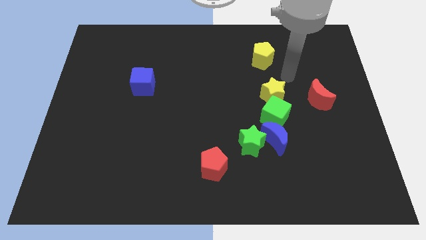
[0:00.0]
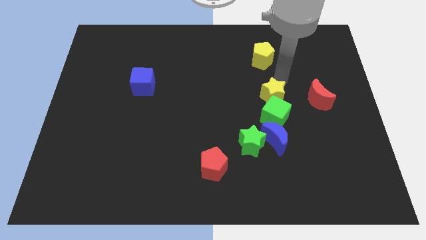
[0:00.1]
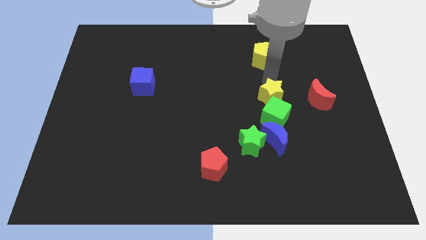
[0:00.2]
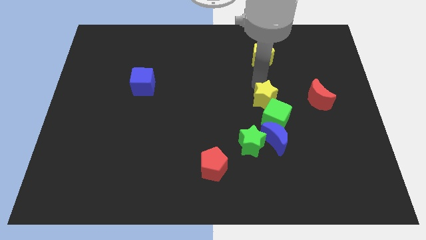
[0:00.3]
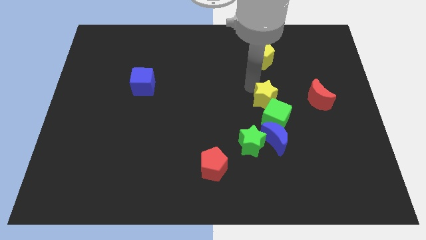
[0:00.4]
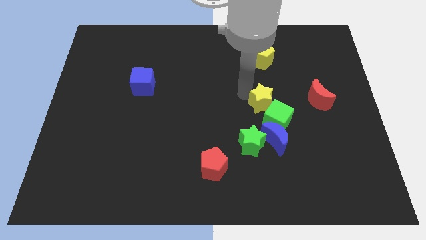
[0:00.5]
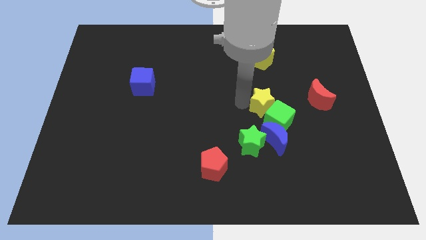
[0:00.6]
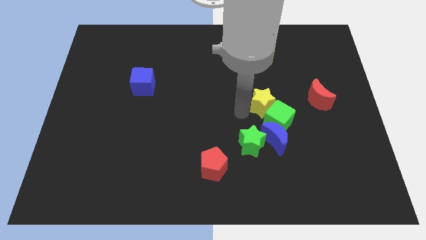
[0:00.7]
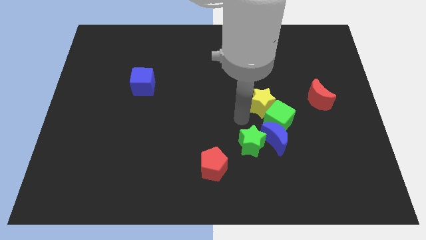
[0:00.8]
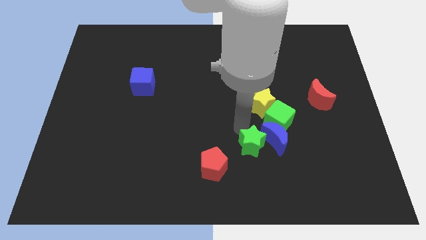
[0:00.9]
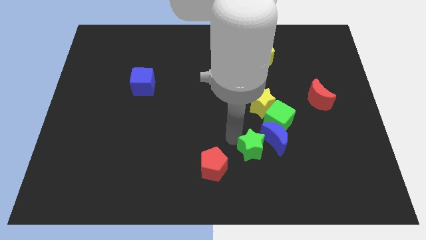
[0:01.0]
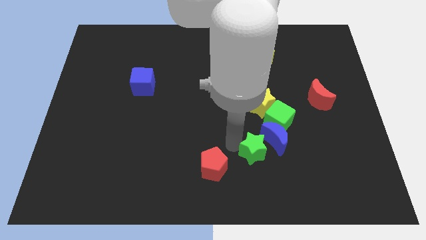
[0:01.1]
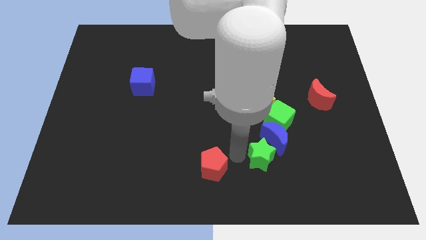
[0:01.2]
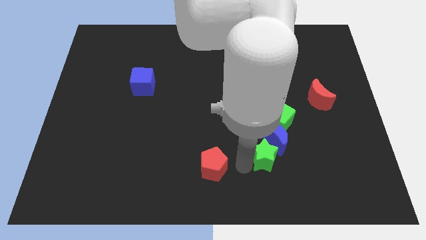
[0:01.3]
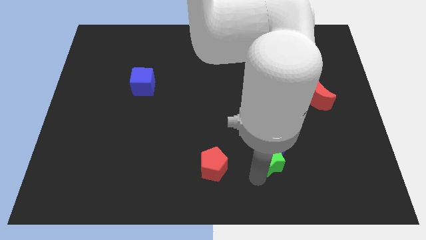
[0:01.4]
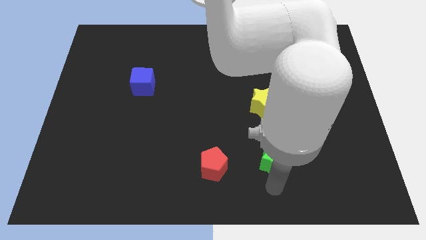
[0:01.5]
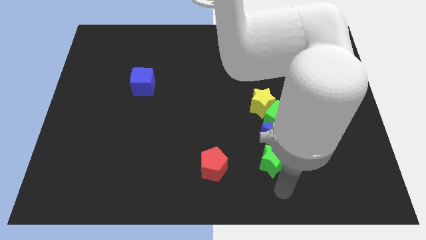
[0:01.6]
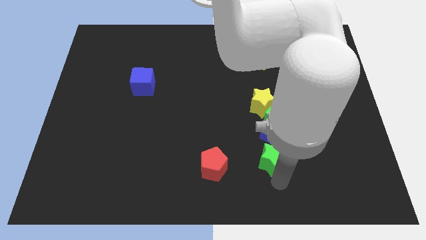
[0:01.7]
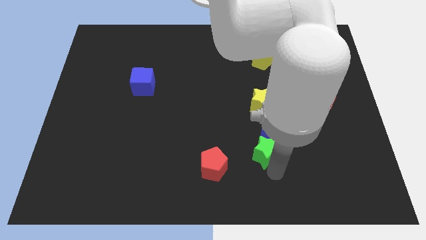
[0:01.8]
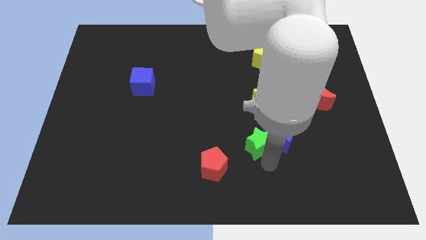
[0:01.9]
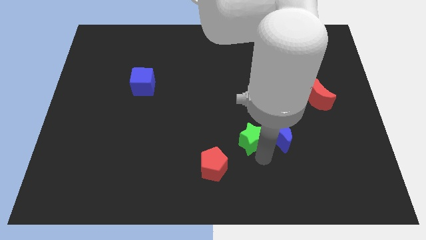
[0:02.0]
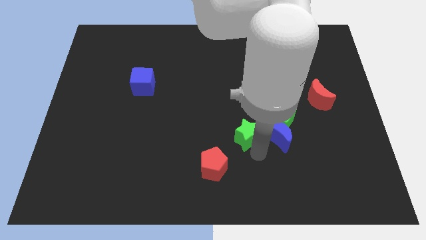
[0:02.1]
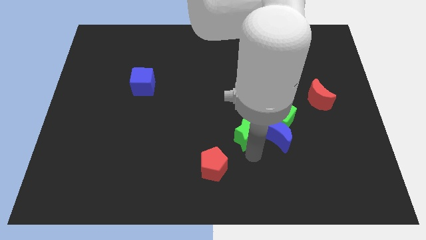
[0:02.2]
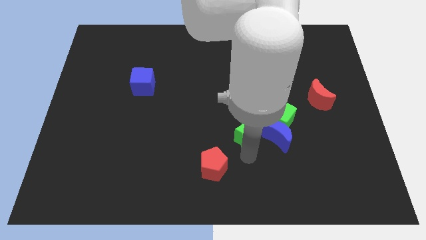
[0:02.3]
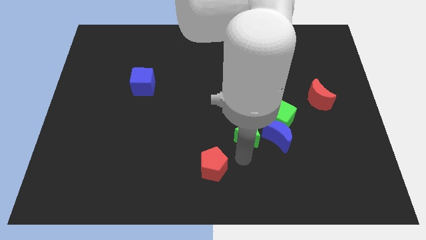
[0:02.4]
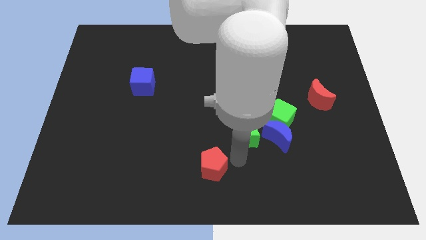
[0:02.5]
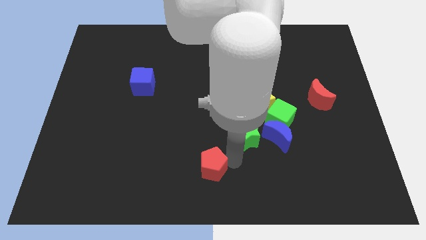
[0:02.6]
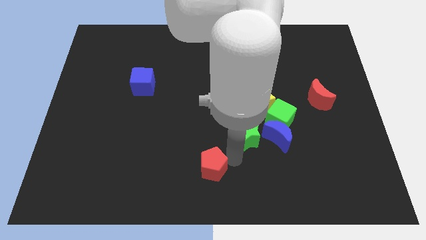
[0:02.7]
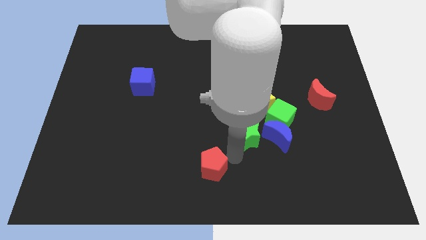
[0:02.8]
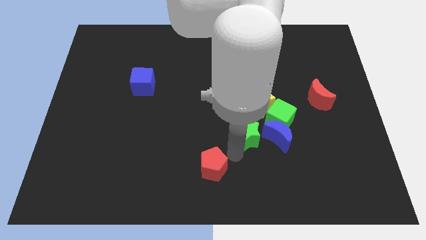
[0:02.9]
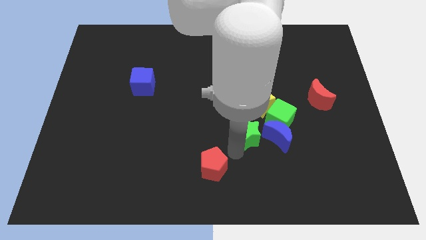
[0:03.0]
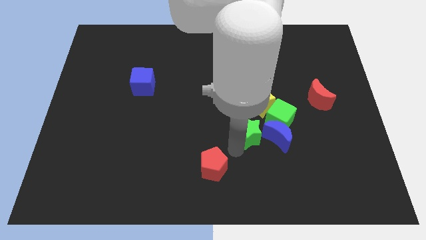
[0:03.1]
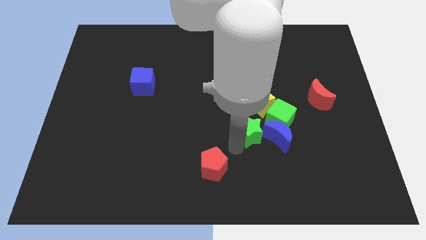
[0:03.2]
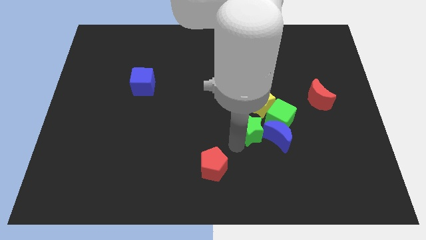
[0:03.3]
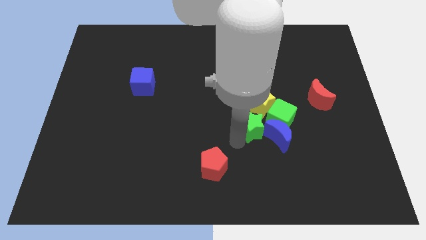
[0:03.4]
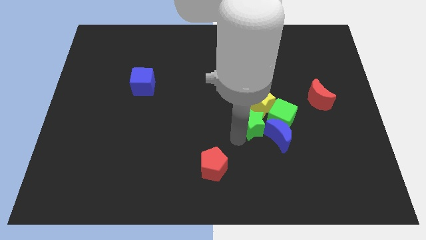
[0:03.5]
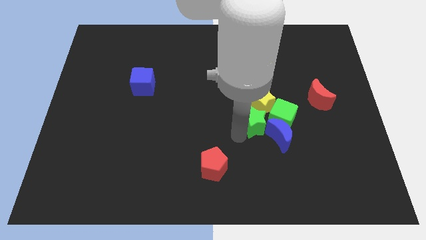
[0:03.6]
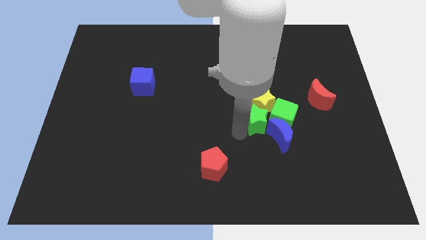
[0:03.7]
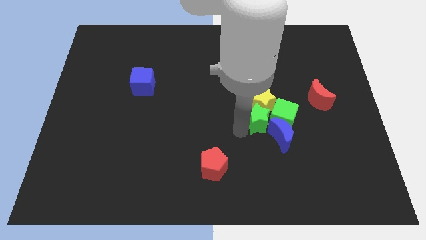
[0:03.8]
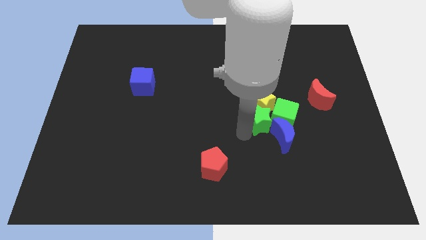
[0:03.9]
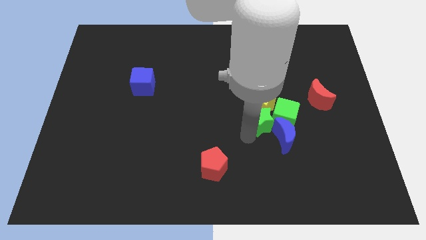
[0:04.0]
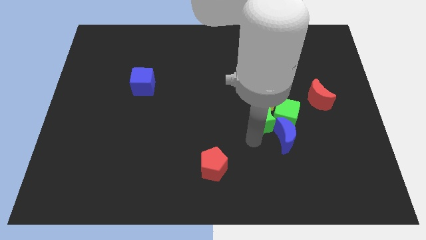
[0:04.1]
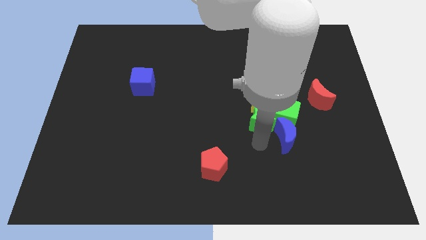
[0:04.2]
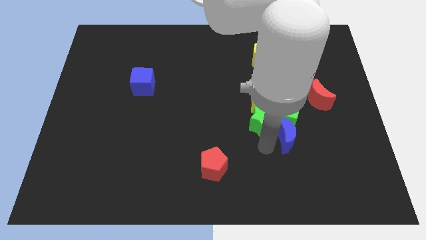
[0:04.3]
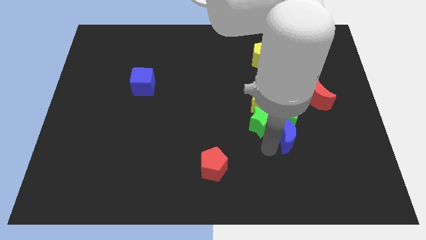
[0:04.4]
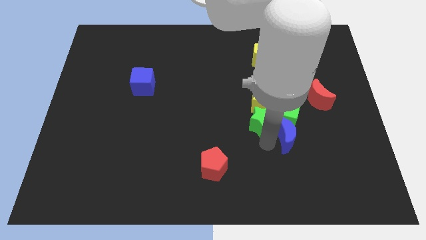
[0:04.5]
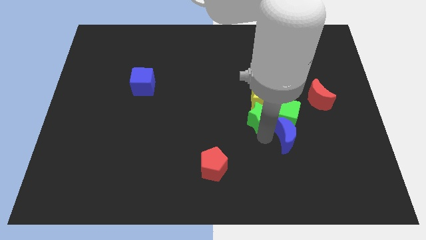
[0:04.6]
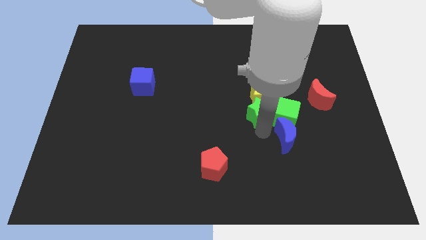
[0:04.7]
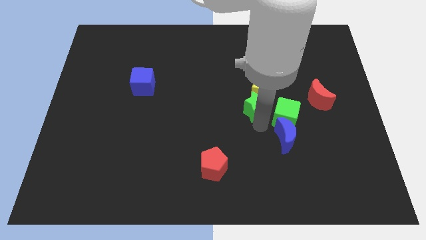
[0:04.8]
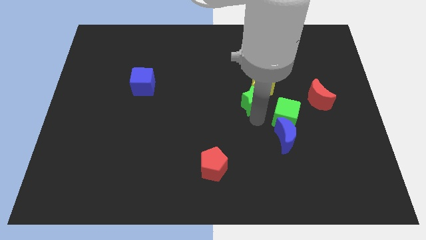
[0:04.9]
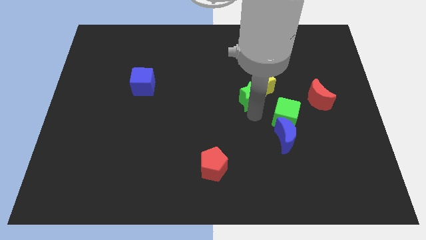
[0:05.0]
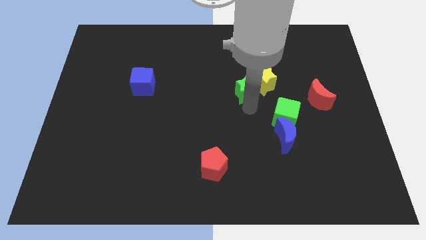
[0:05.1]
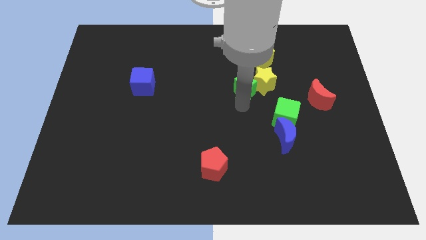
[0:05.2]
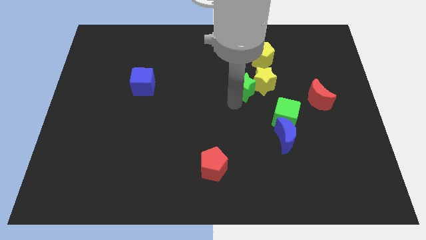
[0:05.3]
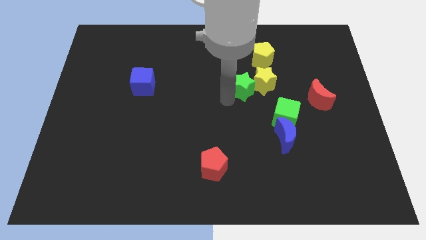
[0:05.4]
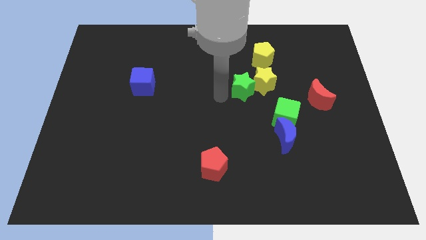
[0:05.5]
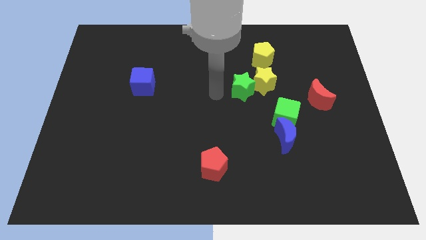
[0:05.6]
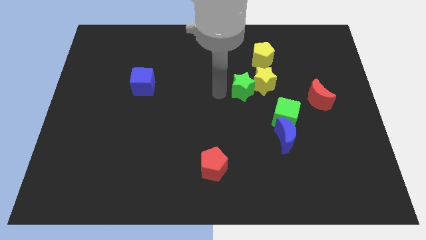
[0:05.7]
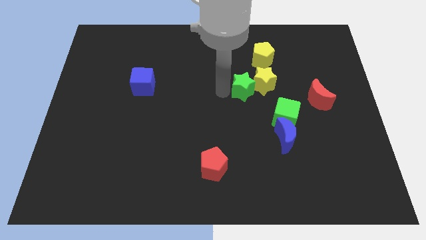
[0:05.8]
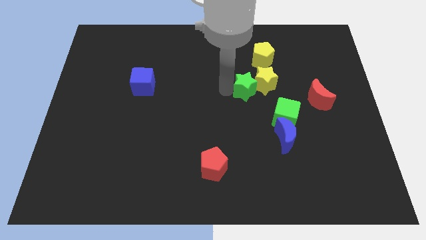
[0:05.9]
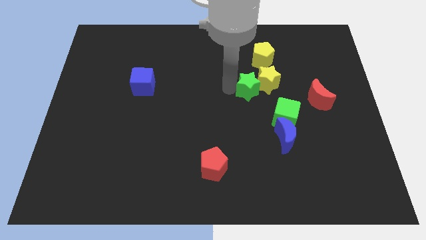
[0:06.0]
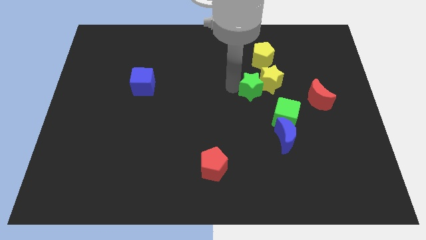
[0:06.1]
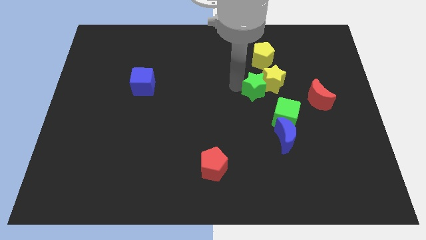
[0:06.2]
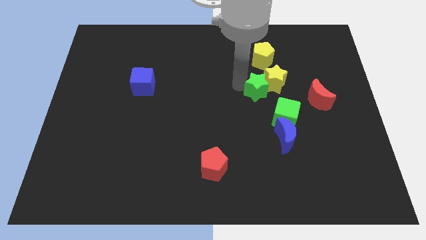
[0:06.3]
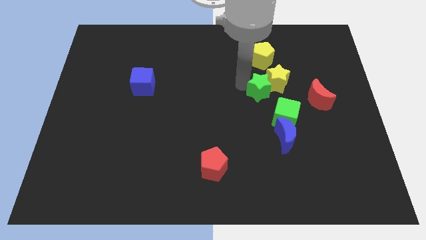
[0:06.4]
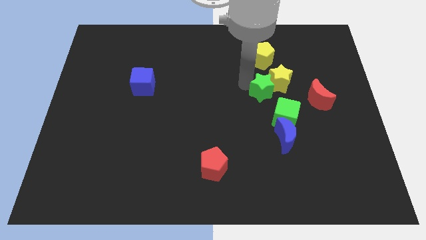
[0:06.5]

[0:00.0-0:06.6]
move the green star to the top side of the green cube

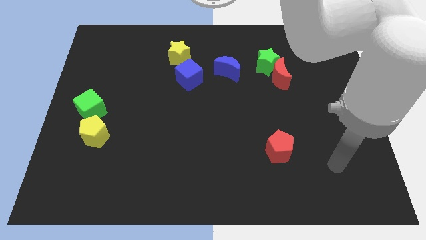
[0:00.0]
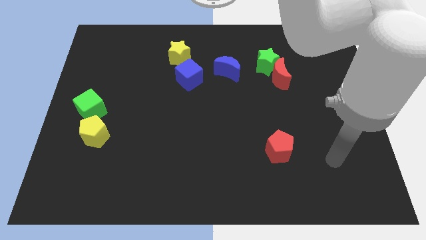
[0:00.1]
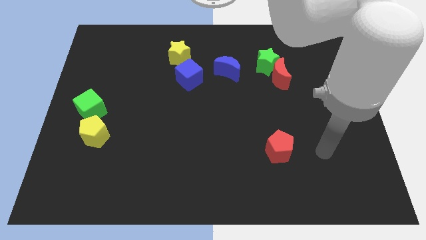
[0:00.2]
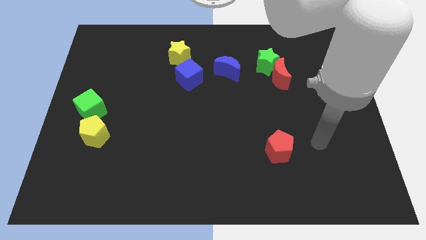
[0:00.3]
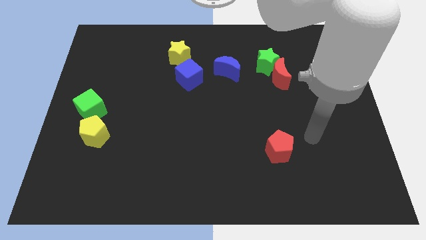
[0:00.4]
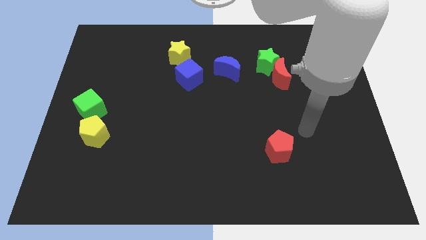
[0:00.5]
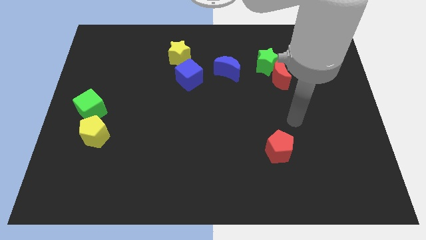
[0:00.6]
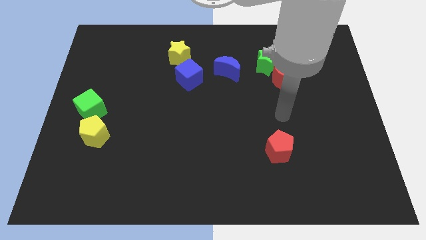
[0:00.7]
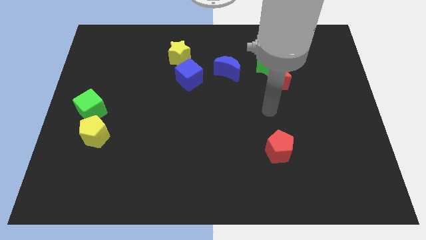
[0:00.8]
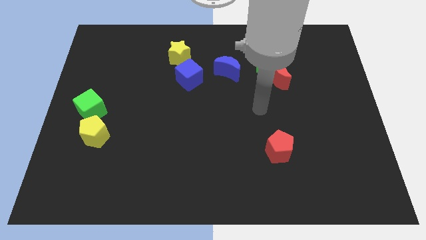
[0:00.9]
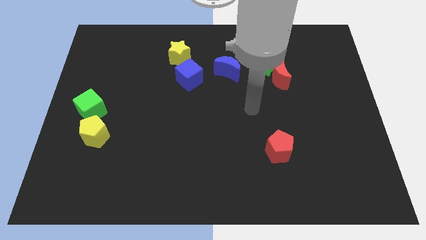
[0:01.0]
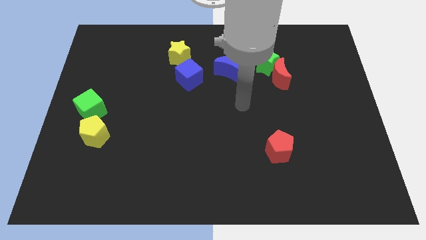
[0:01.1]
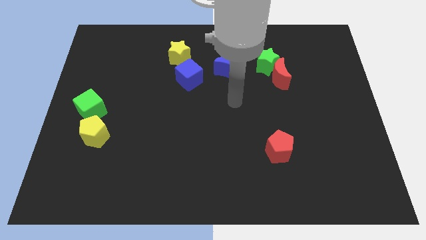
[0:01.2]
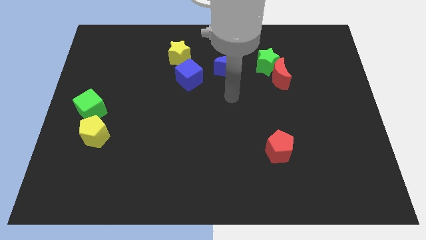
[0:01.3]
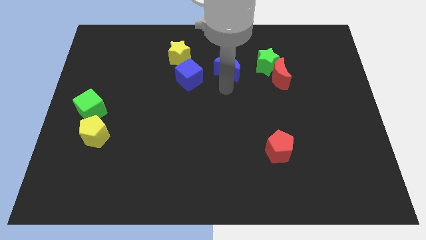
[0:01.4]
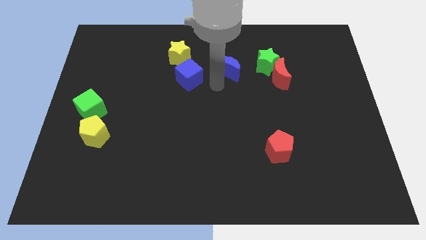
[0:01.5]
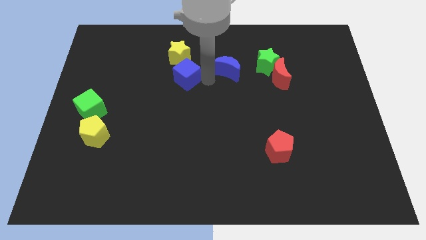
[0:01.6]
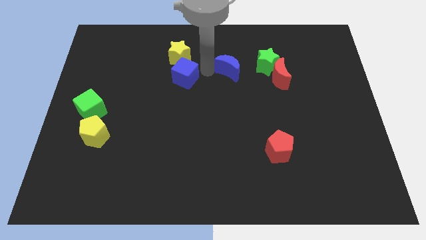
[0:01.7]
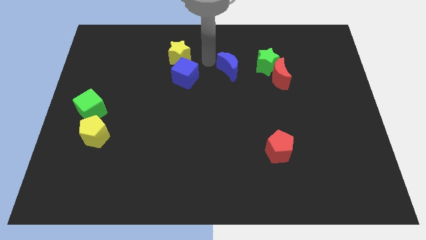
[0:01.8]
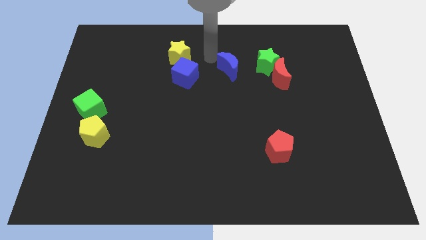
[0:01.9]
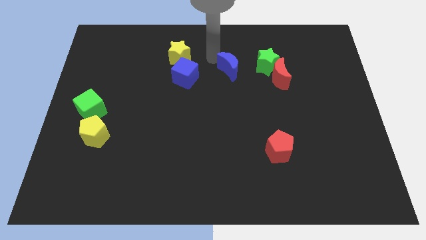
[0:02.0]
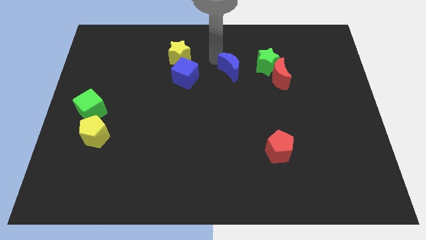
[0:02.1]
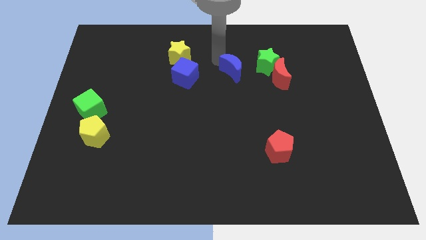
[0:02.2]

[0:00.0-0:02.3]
push the blue moon to the bottom left side of the green star
